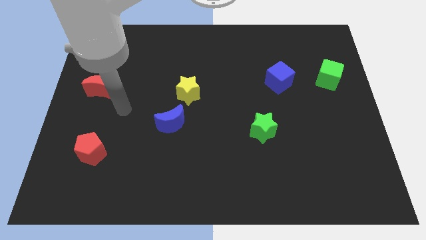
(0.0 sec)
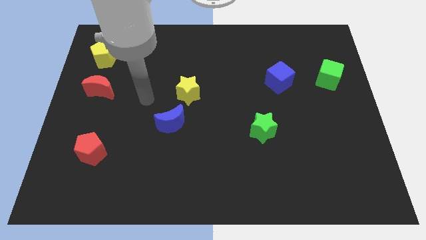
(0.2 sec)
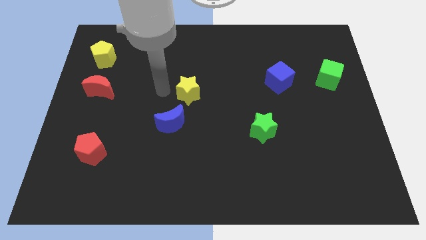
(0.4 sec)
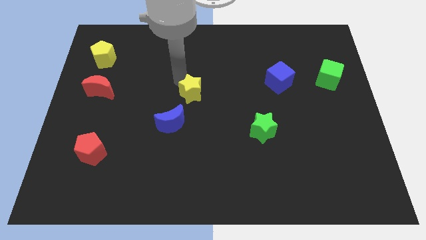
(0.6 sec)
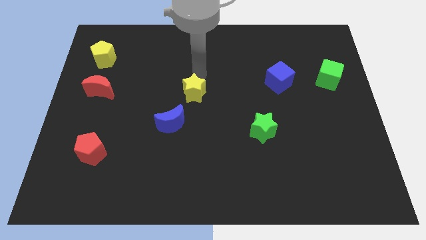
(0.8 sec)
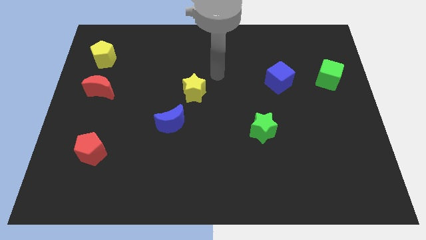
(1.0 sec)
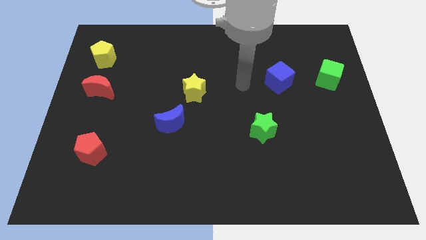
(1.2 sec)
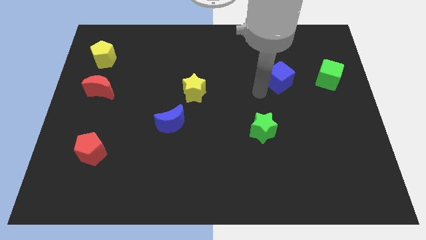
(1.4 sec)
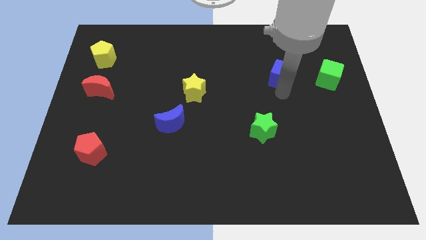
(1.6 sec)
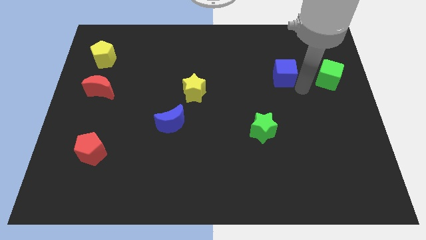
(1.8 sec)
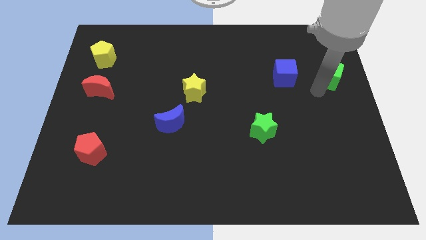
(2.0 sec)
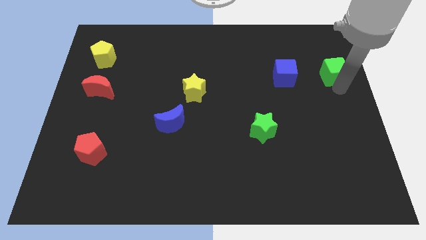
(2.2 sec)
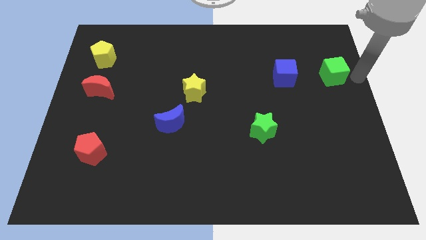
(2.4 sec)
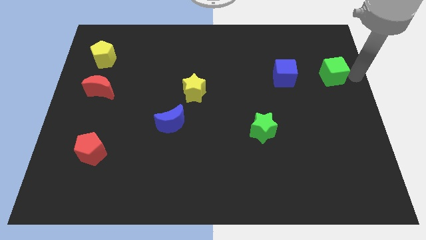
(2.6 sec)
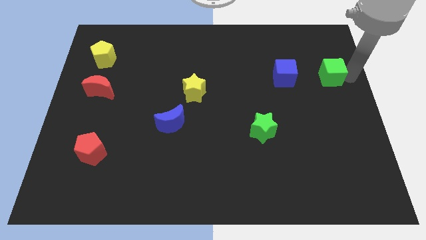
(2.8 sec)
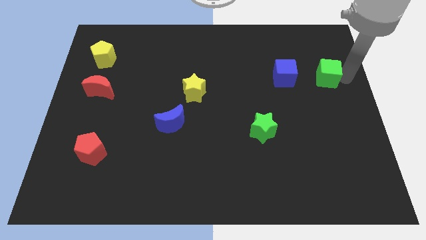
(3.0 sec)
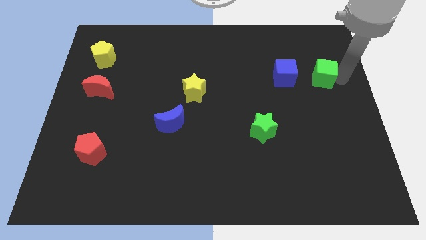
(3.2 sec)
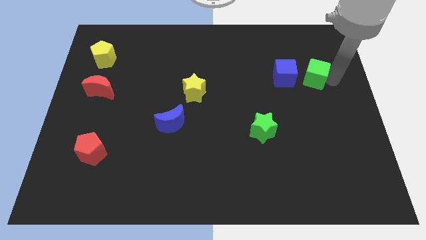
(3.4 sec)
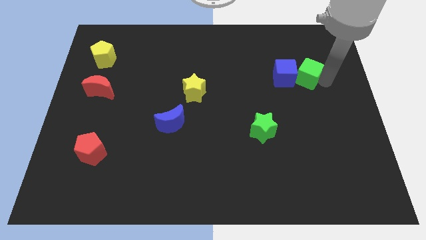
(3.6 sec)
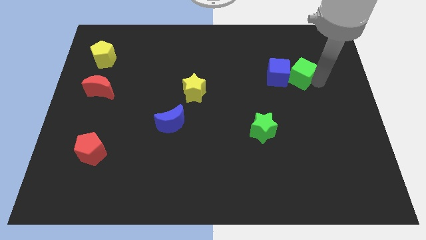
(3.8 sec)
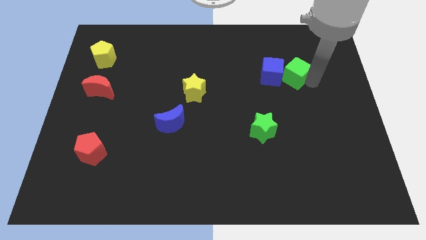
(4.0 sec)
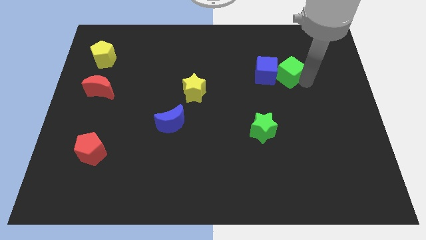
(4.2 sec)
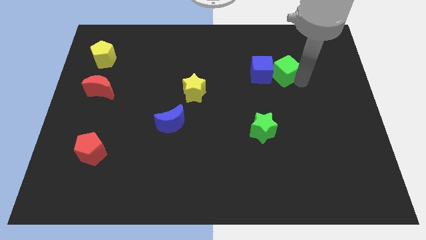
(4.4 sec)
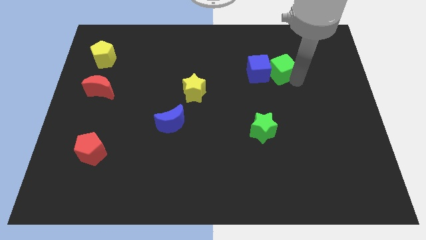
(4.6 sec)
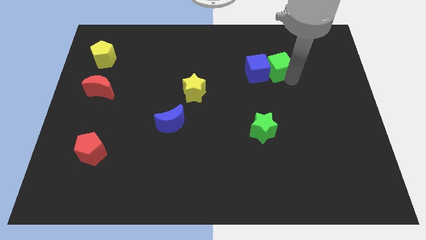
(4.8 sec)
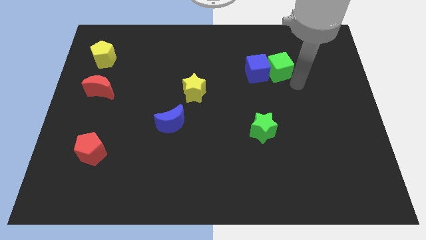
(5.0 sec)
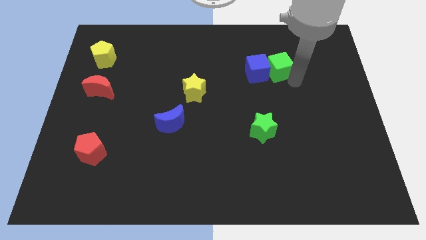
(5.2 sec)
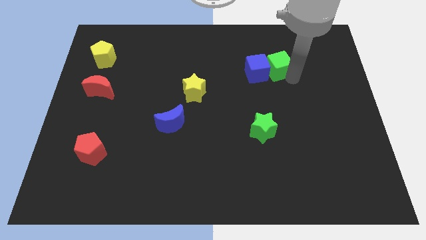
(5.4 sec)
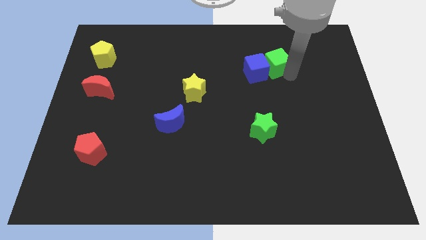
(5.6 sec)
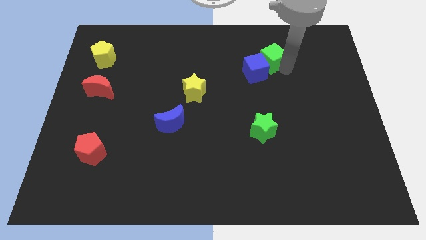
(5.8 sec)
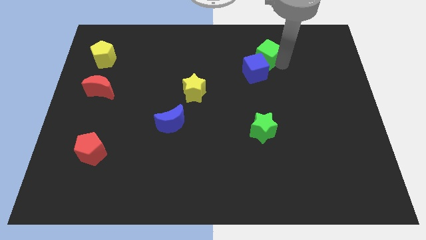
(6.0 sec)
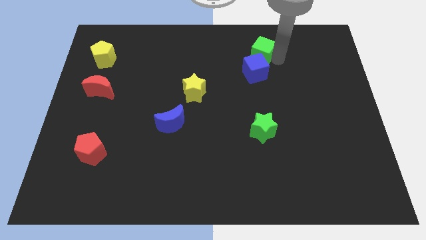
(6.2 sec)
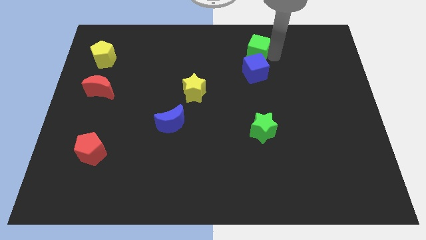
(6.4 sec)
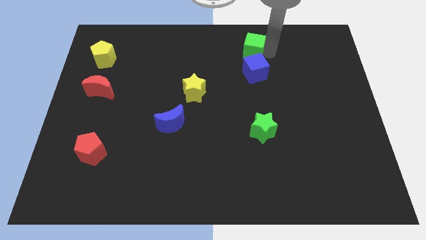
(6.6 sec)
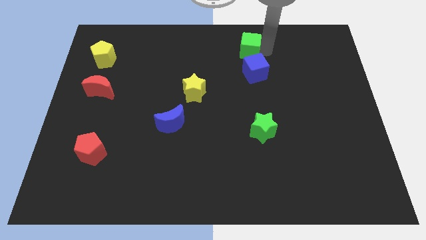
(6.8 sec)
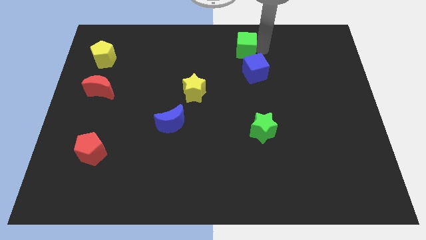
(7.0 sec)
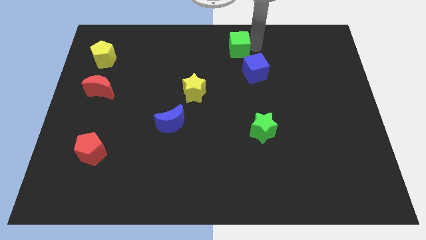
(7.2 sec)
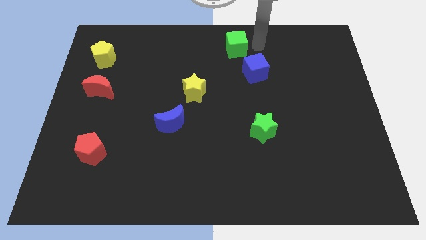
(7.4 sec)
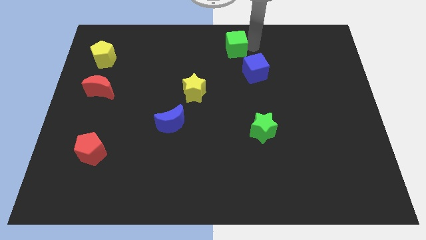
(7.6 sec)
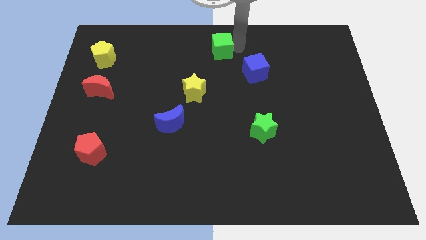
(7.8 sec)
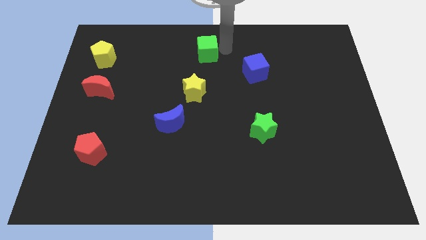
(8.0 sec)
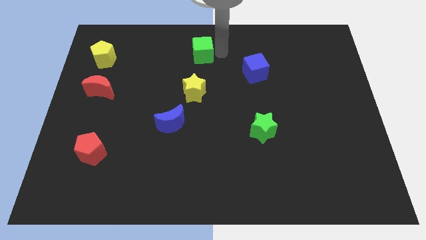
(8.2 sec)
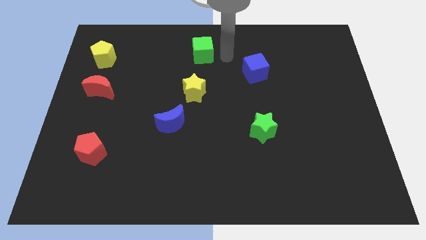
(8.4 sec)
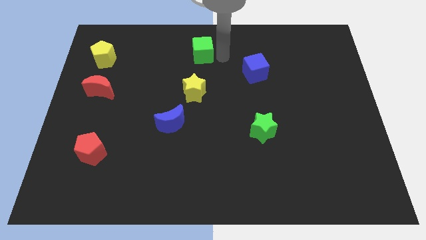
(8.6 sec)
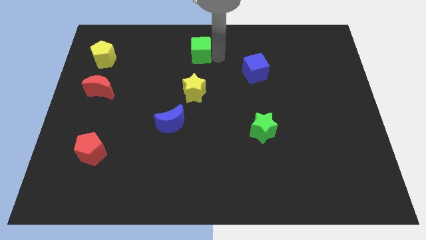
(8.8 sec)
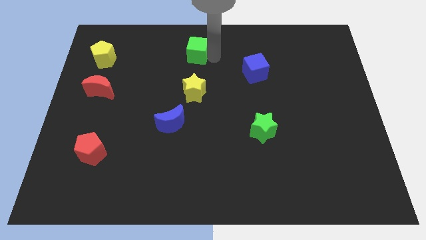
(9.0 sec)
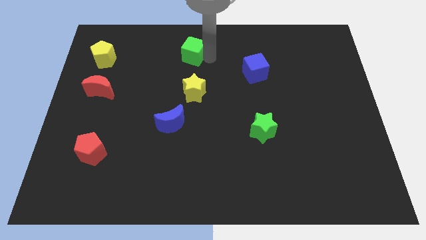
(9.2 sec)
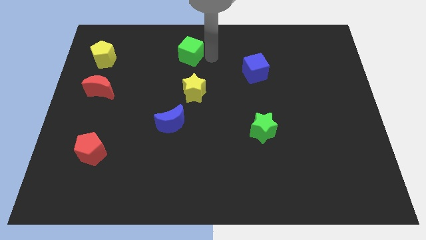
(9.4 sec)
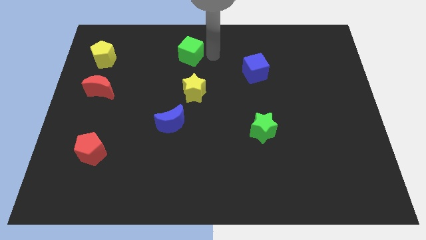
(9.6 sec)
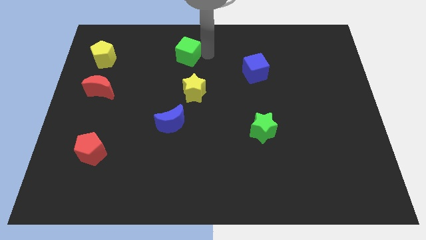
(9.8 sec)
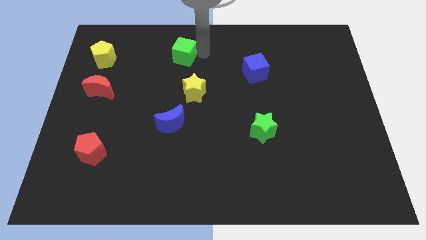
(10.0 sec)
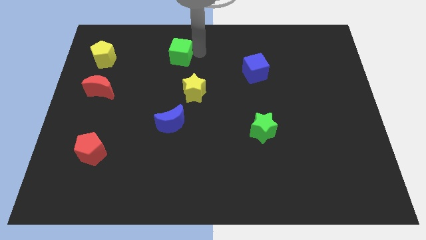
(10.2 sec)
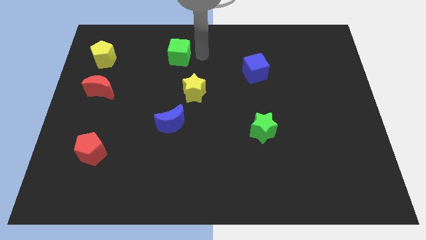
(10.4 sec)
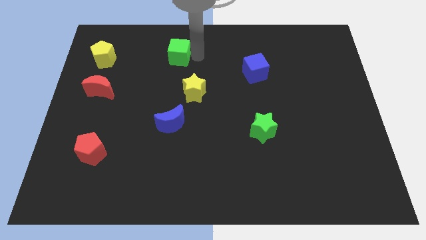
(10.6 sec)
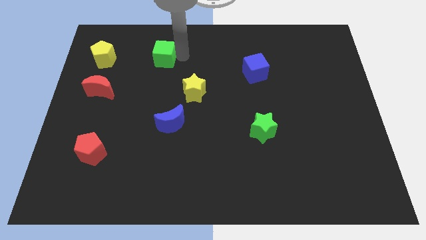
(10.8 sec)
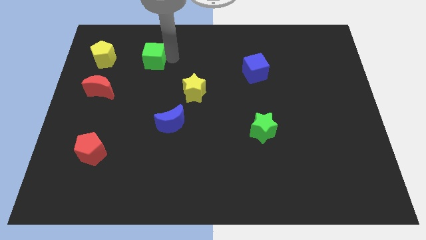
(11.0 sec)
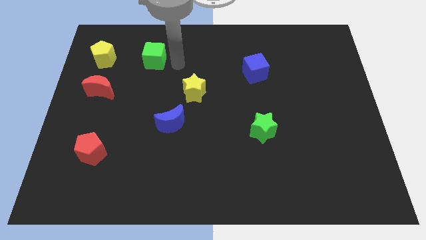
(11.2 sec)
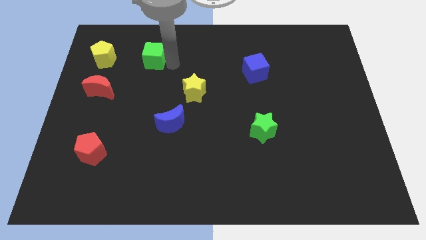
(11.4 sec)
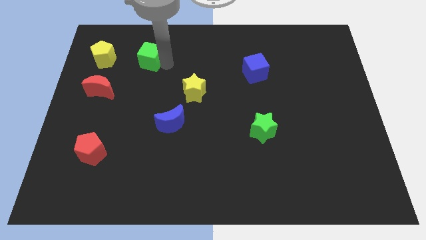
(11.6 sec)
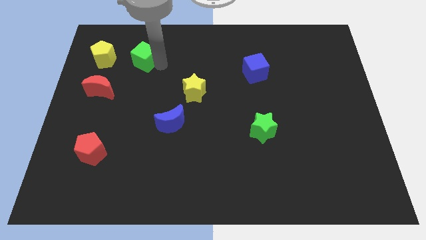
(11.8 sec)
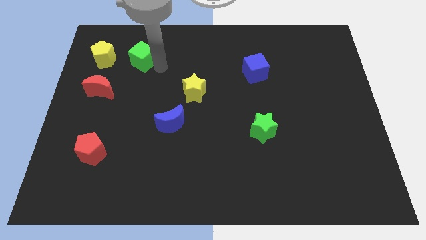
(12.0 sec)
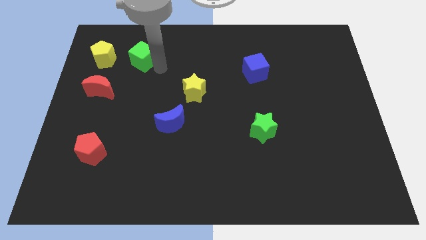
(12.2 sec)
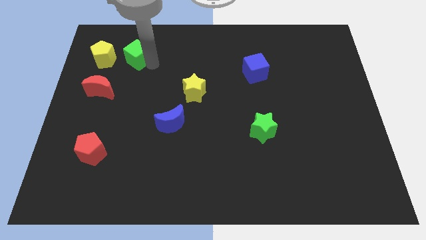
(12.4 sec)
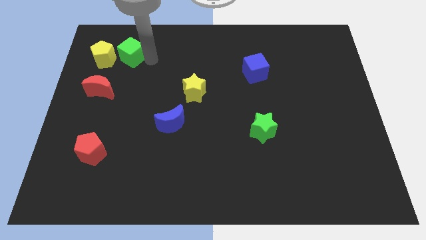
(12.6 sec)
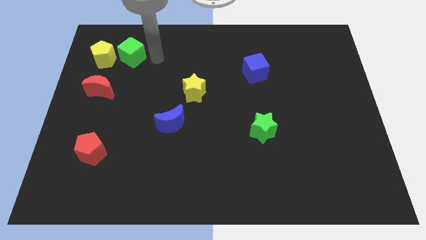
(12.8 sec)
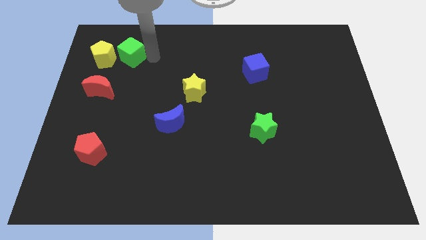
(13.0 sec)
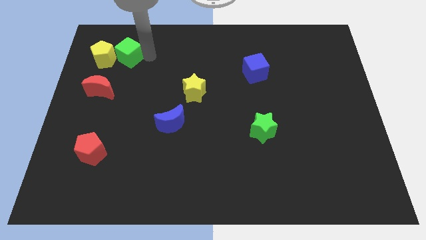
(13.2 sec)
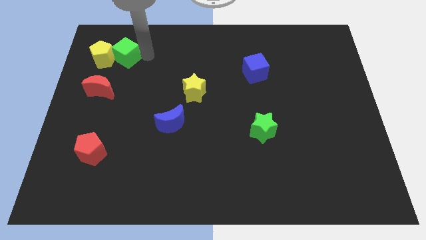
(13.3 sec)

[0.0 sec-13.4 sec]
push the green cube towards the yellow pentagon
